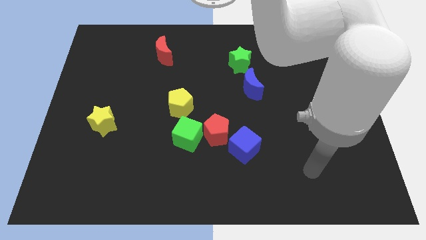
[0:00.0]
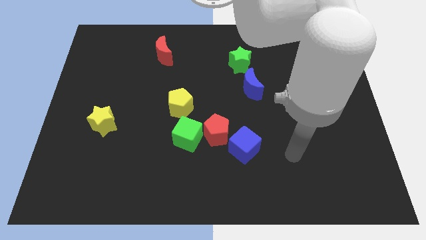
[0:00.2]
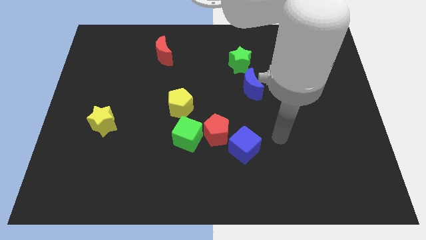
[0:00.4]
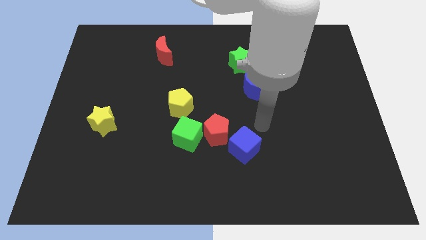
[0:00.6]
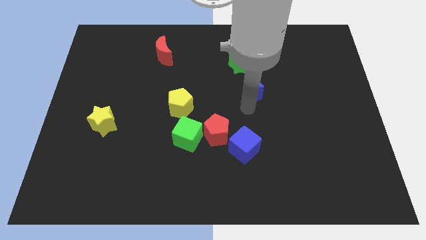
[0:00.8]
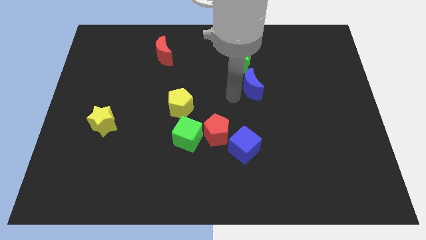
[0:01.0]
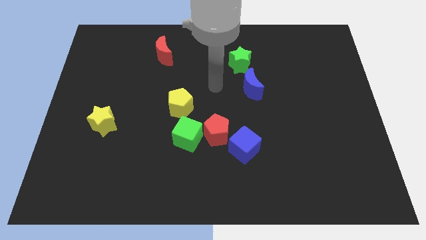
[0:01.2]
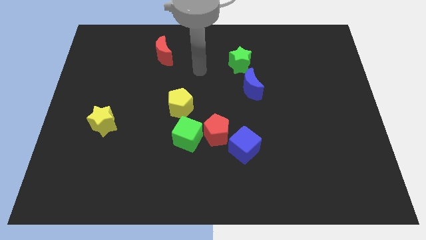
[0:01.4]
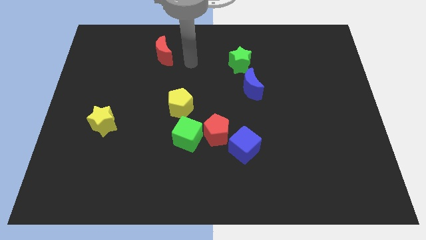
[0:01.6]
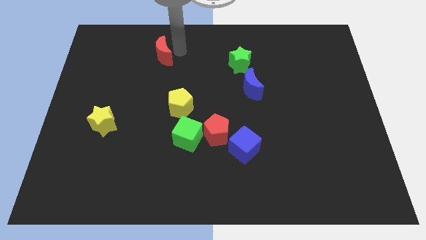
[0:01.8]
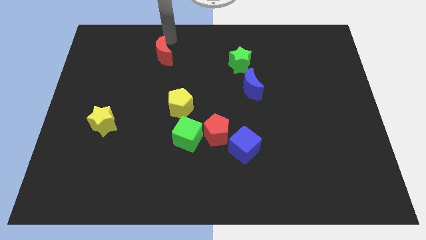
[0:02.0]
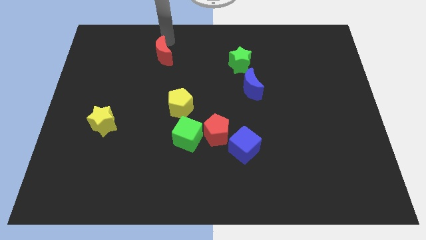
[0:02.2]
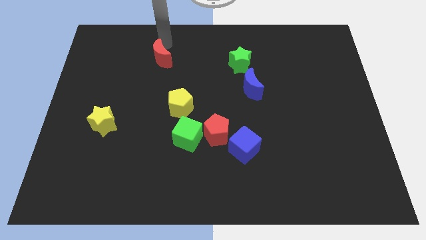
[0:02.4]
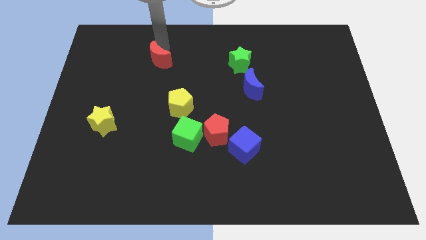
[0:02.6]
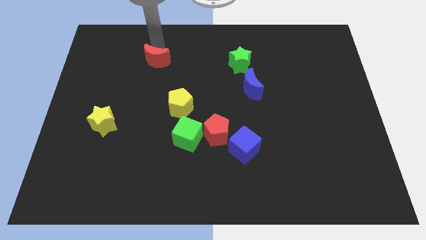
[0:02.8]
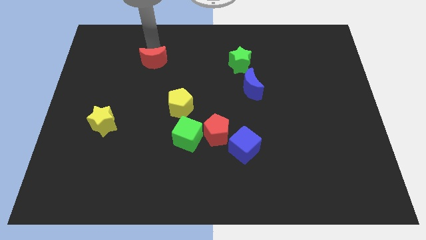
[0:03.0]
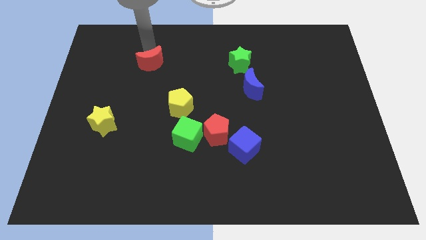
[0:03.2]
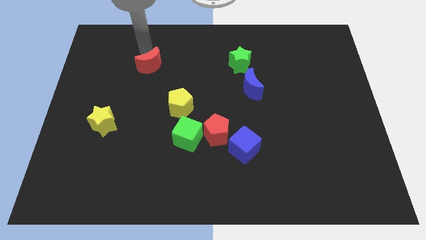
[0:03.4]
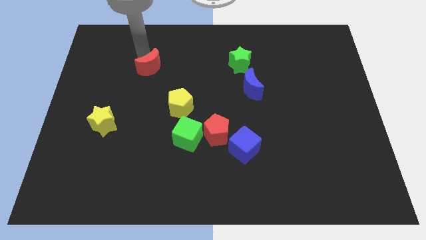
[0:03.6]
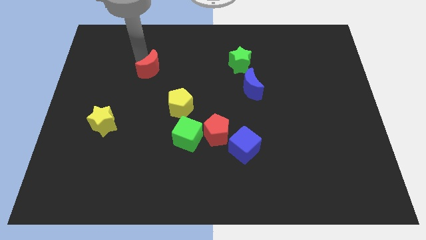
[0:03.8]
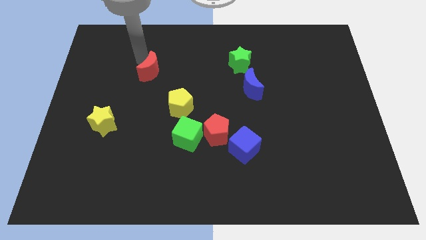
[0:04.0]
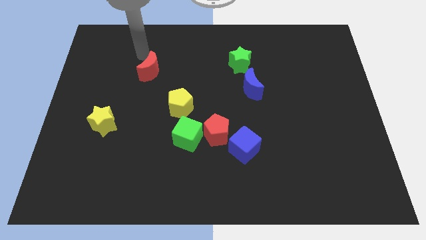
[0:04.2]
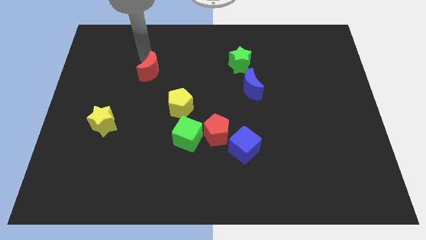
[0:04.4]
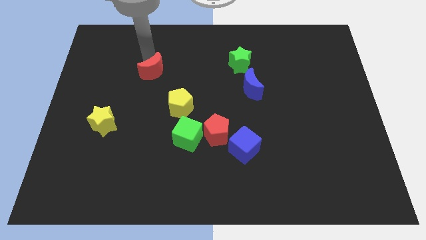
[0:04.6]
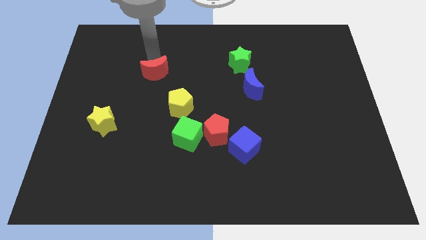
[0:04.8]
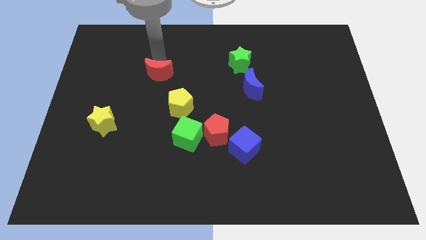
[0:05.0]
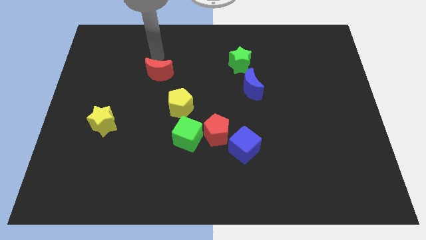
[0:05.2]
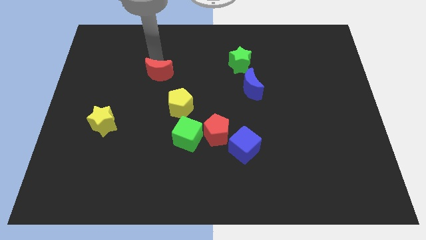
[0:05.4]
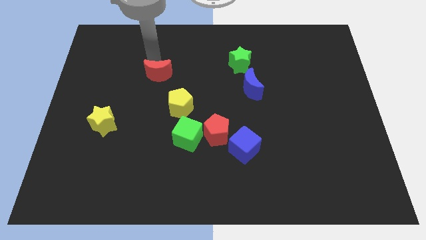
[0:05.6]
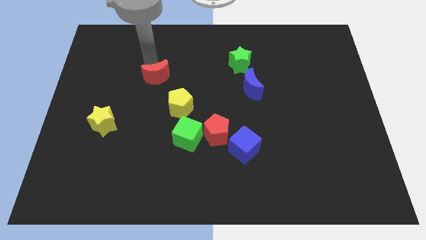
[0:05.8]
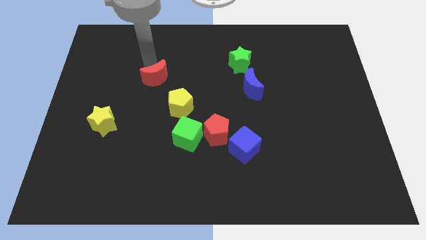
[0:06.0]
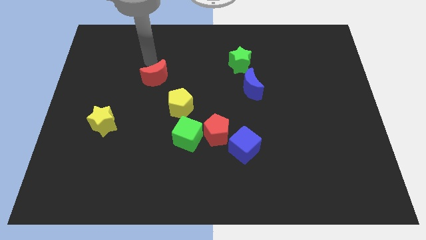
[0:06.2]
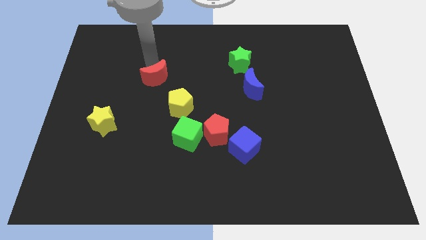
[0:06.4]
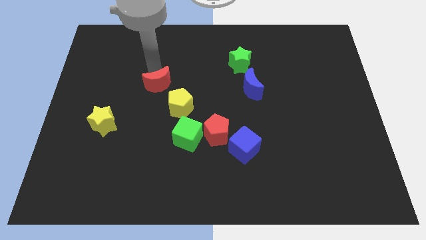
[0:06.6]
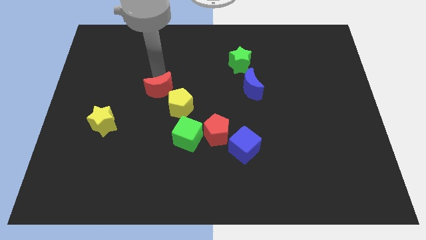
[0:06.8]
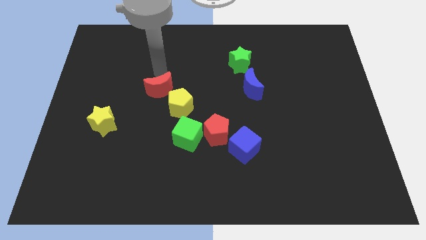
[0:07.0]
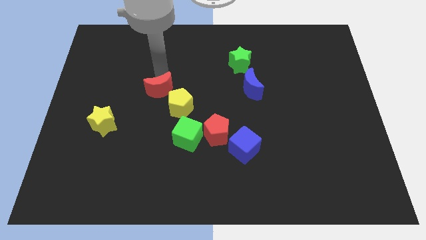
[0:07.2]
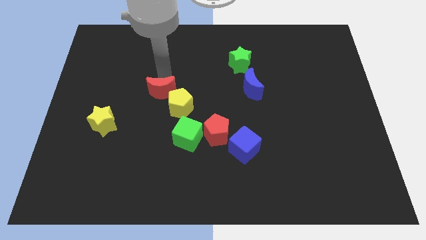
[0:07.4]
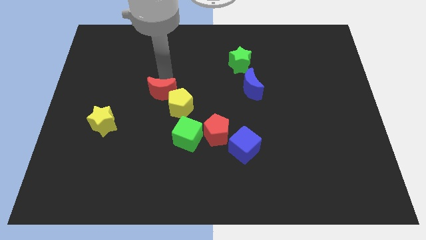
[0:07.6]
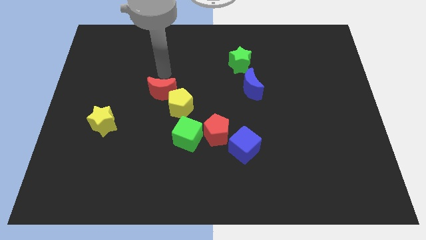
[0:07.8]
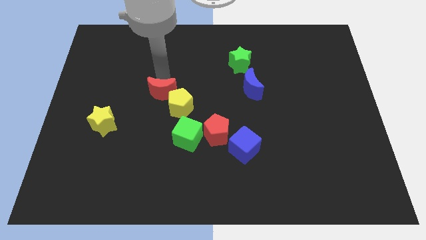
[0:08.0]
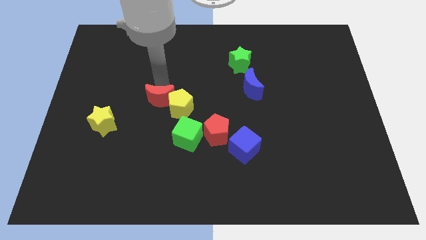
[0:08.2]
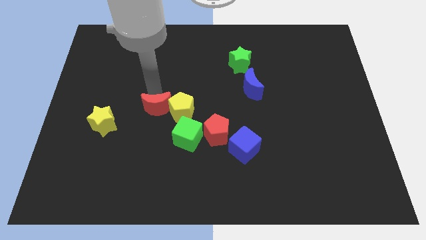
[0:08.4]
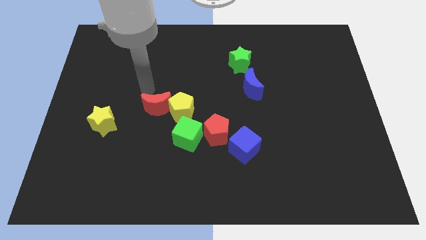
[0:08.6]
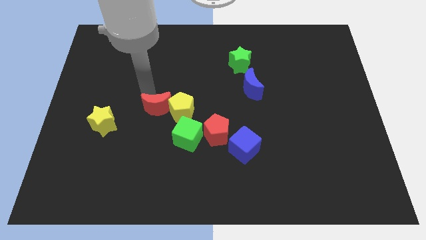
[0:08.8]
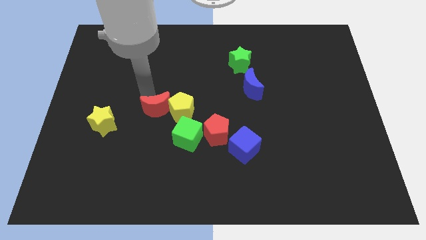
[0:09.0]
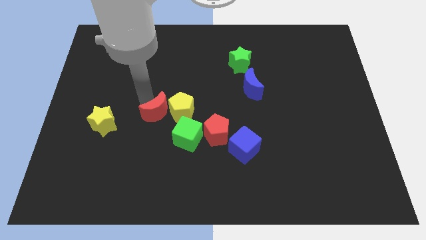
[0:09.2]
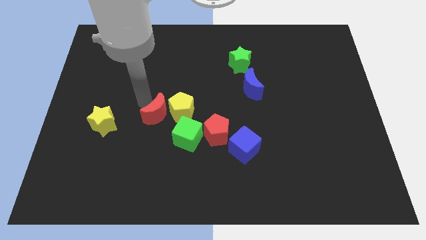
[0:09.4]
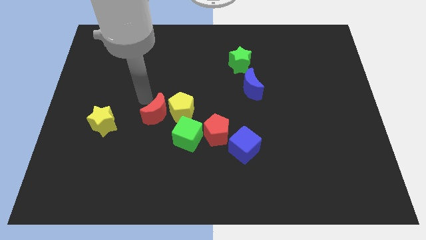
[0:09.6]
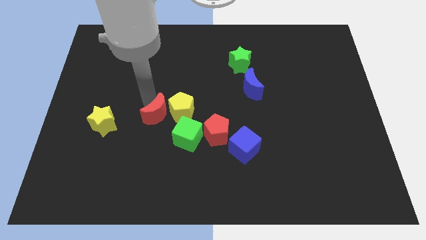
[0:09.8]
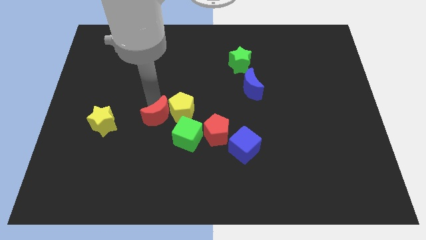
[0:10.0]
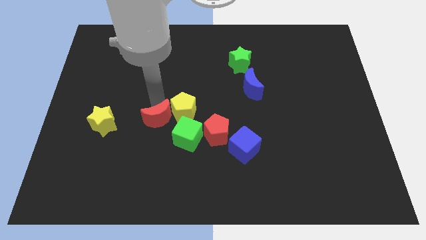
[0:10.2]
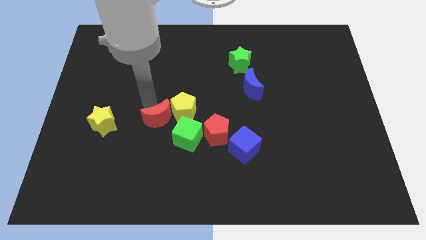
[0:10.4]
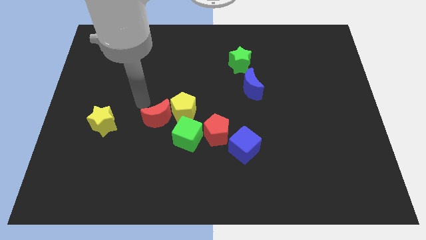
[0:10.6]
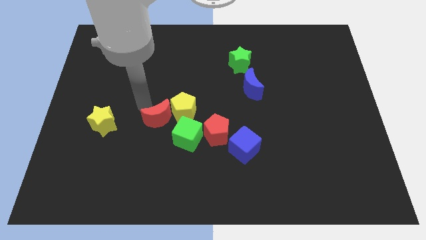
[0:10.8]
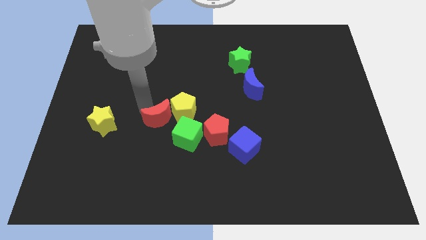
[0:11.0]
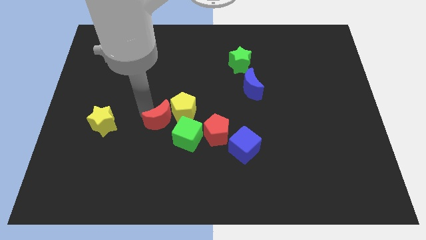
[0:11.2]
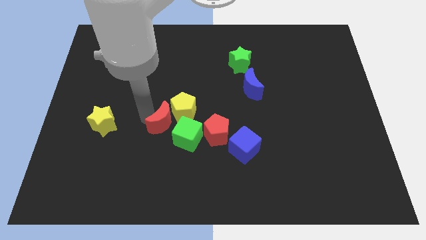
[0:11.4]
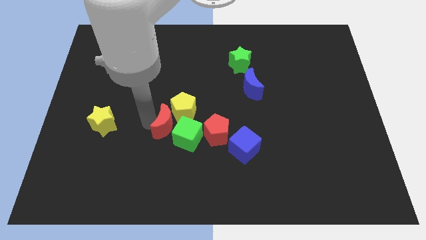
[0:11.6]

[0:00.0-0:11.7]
slide the red moon towards the green cube

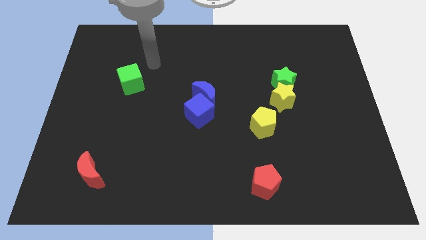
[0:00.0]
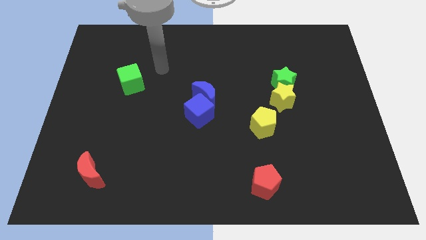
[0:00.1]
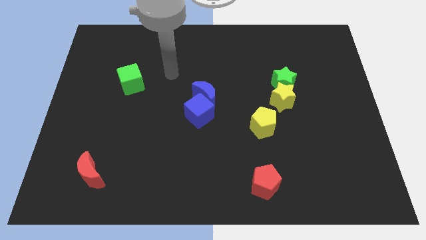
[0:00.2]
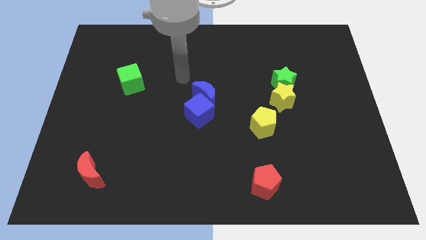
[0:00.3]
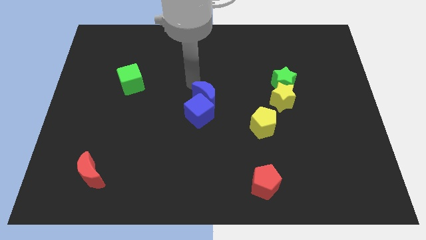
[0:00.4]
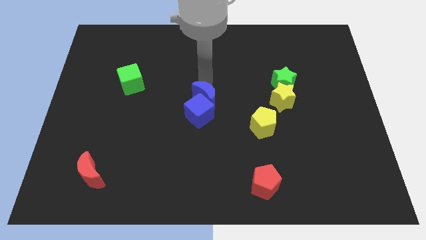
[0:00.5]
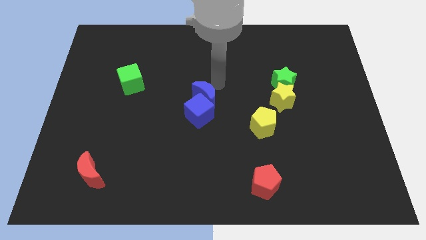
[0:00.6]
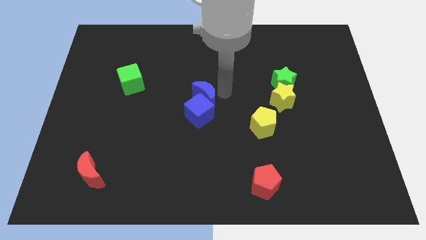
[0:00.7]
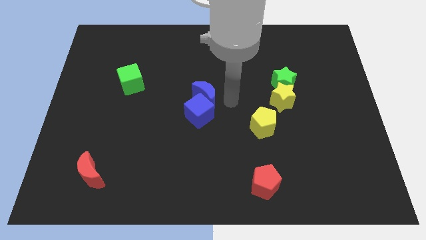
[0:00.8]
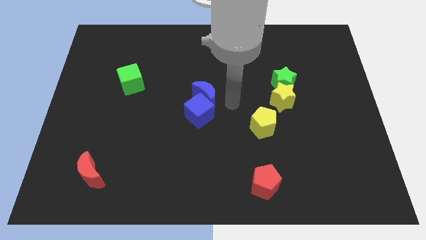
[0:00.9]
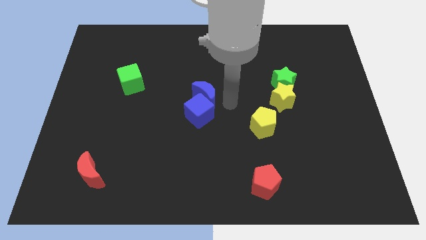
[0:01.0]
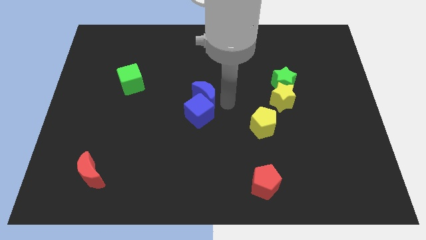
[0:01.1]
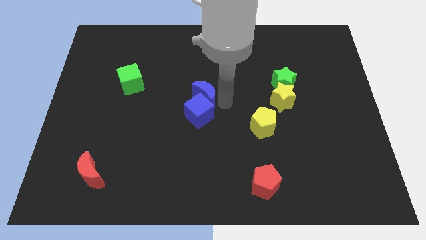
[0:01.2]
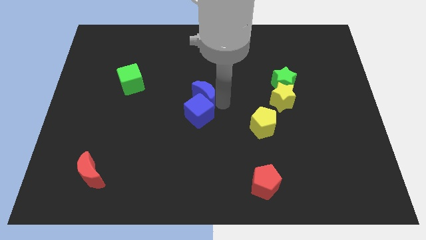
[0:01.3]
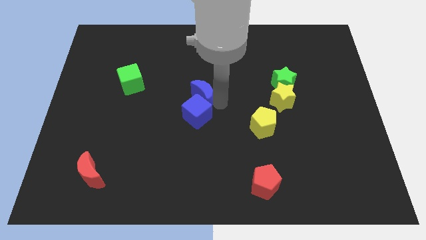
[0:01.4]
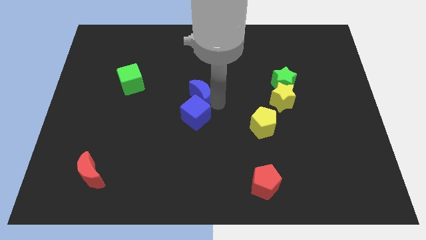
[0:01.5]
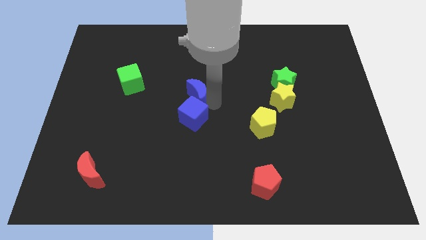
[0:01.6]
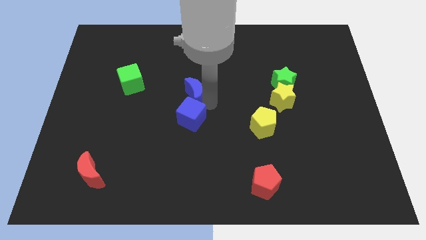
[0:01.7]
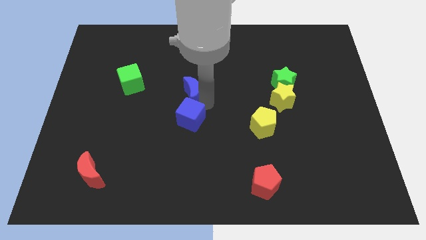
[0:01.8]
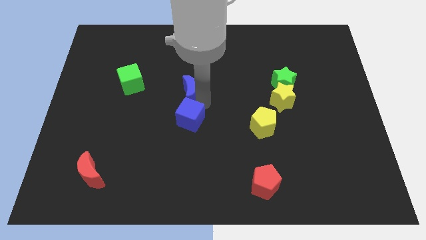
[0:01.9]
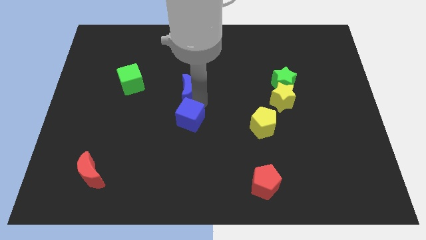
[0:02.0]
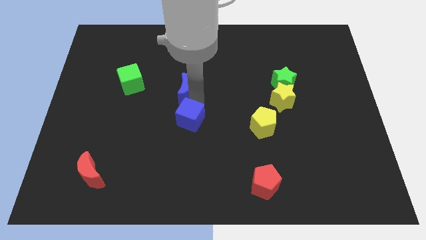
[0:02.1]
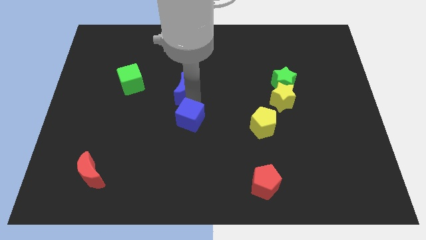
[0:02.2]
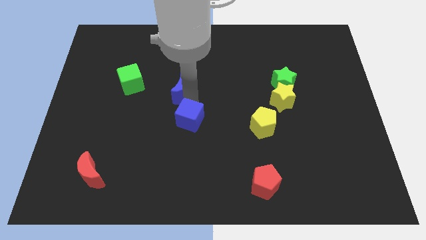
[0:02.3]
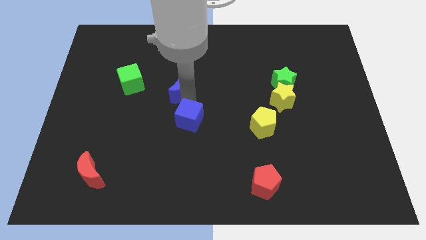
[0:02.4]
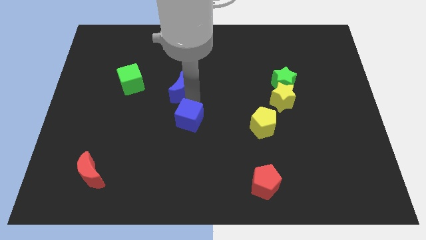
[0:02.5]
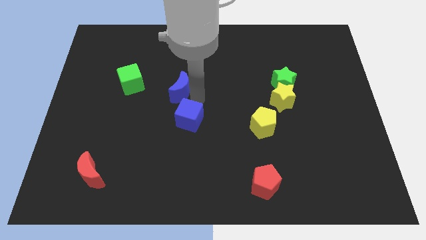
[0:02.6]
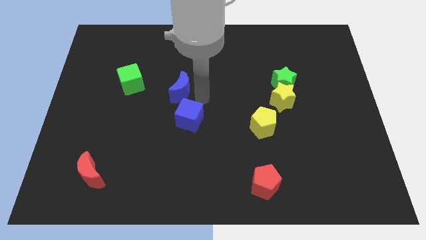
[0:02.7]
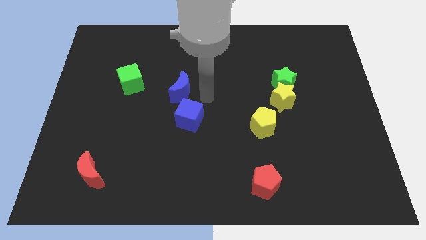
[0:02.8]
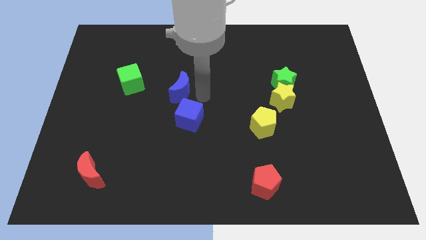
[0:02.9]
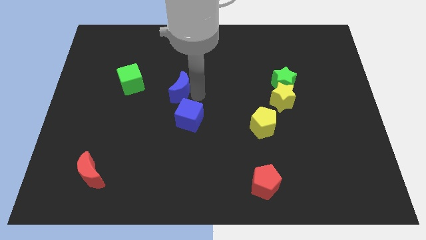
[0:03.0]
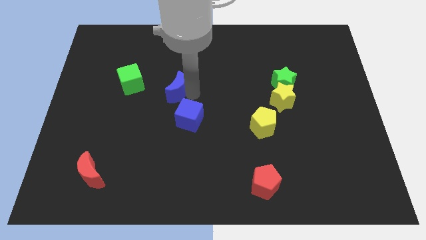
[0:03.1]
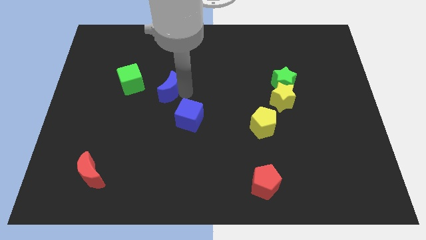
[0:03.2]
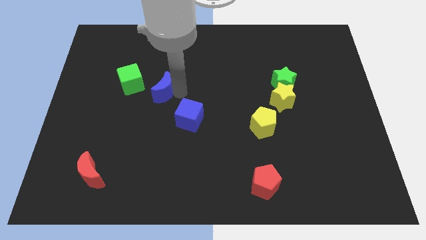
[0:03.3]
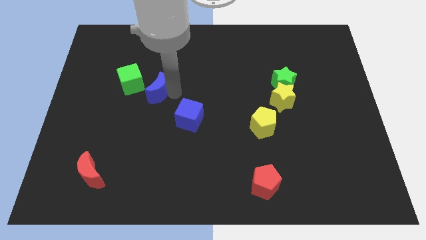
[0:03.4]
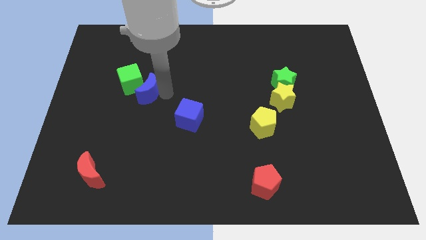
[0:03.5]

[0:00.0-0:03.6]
slide the blue moon towards the green cube
